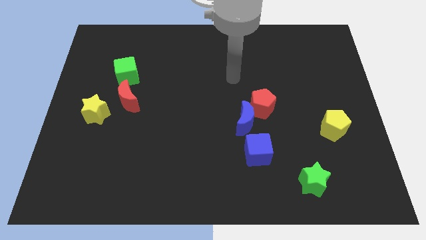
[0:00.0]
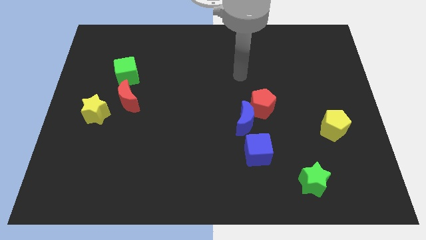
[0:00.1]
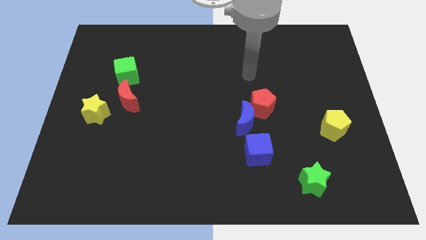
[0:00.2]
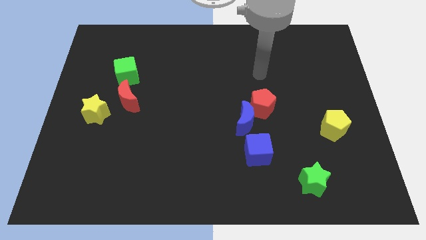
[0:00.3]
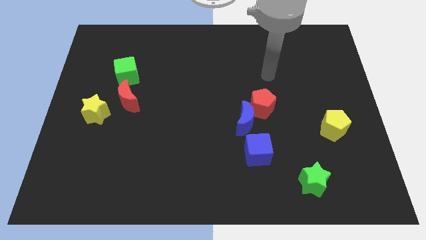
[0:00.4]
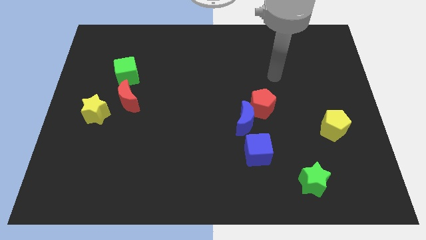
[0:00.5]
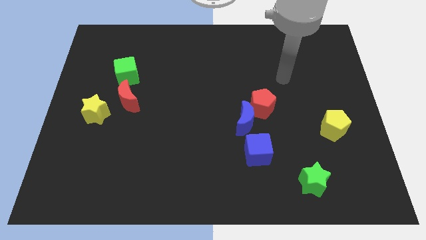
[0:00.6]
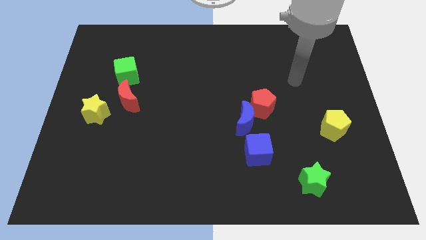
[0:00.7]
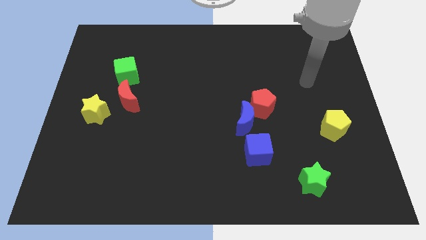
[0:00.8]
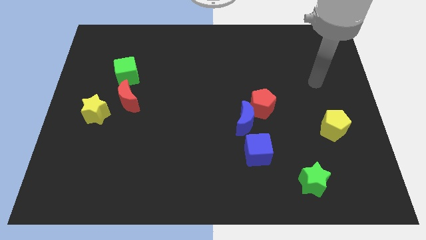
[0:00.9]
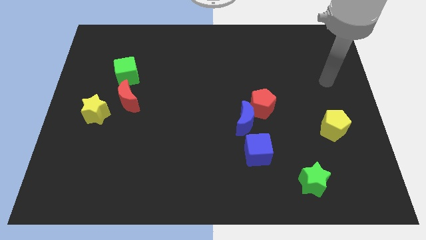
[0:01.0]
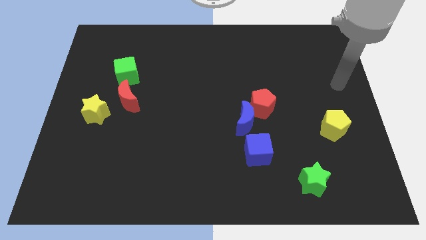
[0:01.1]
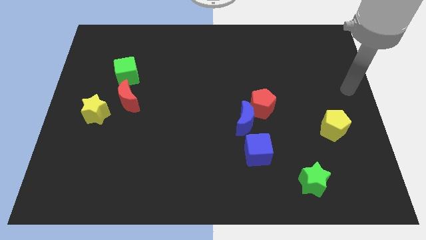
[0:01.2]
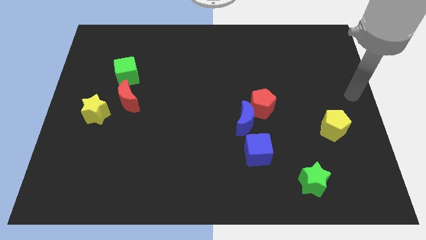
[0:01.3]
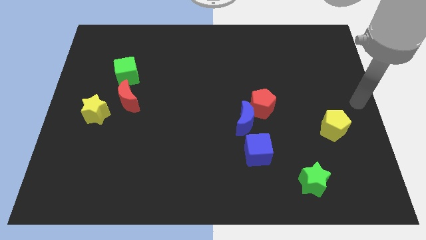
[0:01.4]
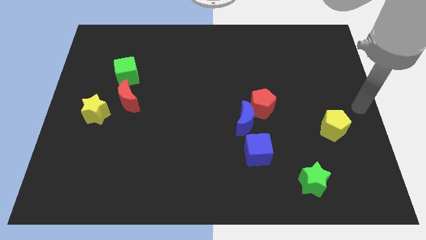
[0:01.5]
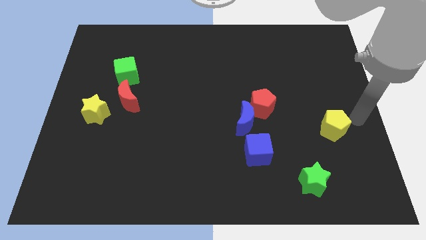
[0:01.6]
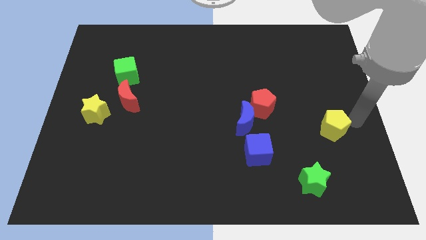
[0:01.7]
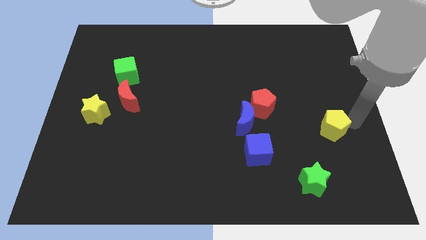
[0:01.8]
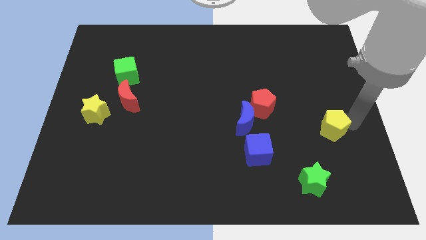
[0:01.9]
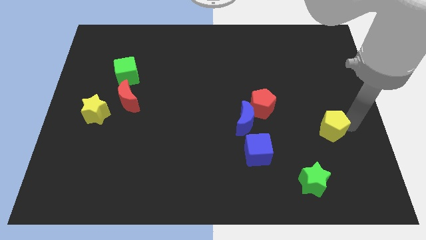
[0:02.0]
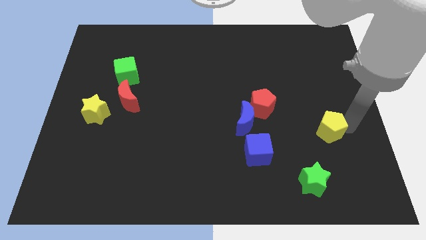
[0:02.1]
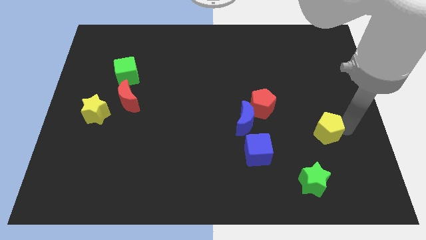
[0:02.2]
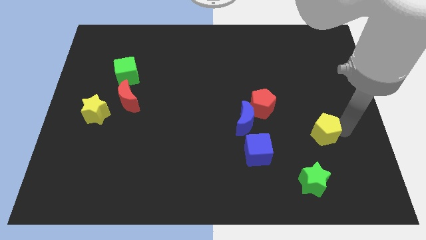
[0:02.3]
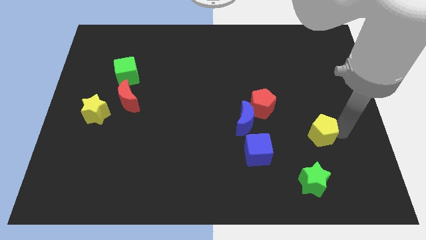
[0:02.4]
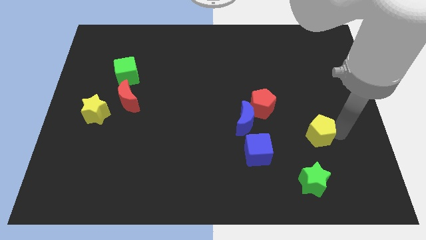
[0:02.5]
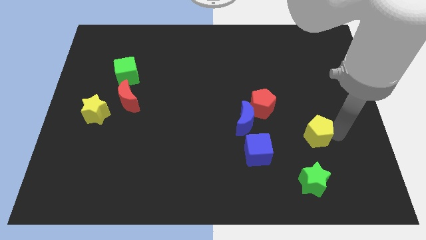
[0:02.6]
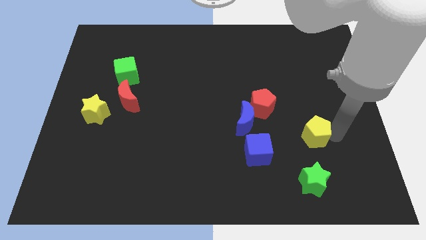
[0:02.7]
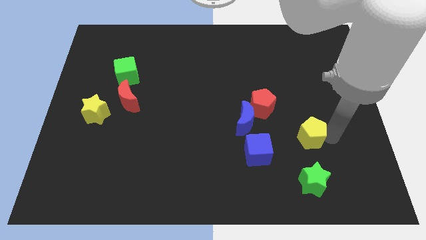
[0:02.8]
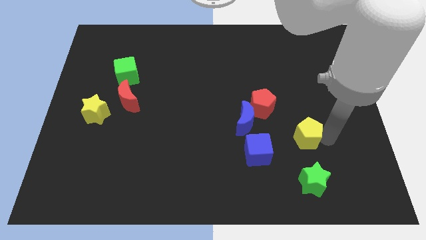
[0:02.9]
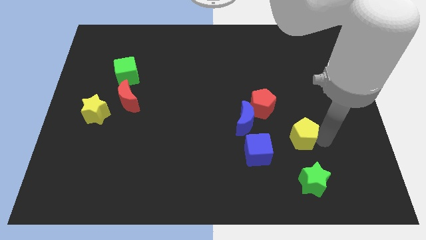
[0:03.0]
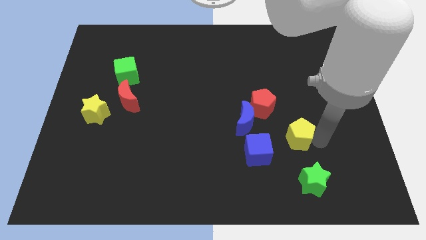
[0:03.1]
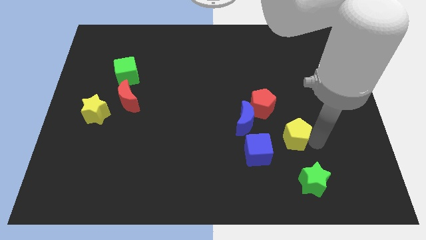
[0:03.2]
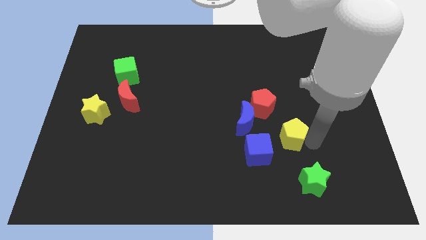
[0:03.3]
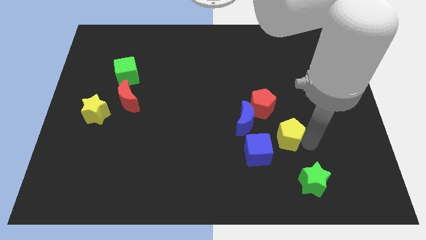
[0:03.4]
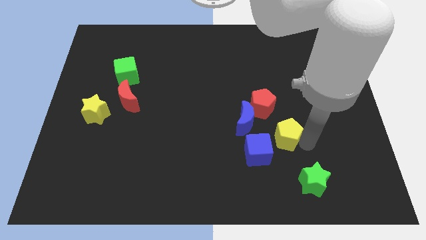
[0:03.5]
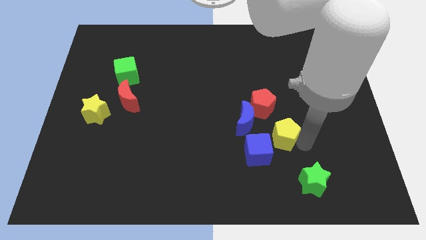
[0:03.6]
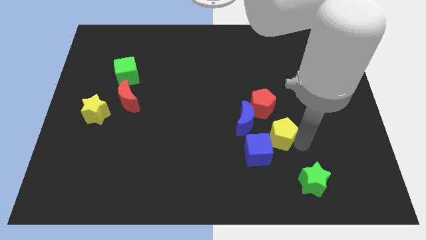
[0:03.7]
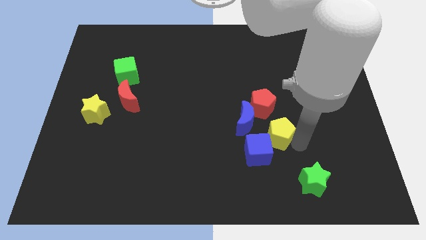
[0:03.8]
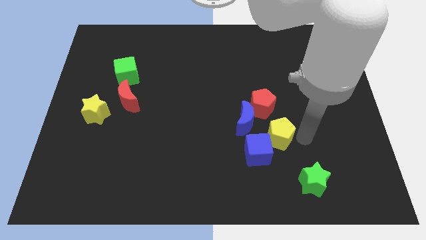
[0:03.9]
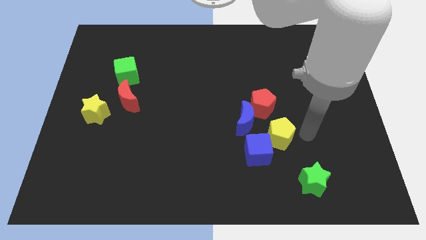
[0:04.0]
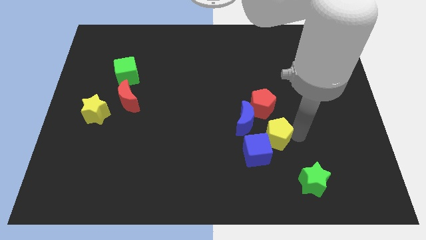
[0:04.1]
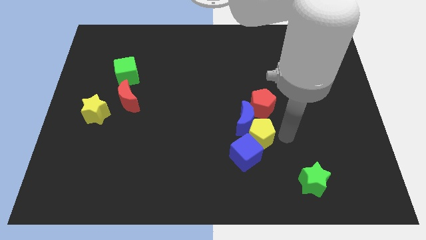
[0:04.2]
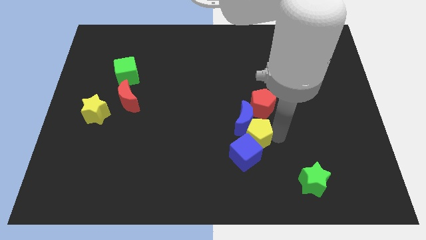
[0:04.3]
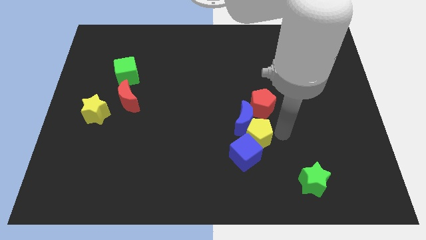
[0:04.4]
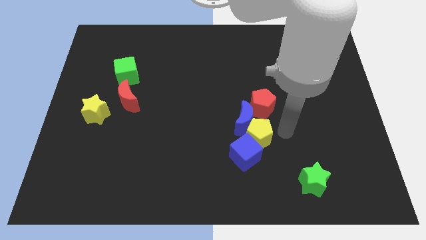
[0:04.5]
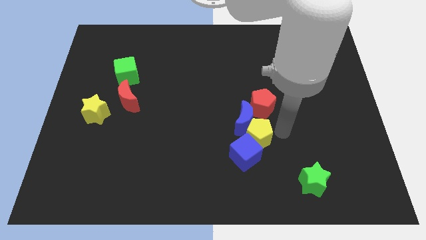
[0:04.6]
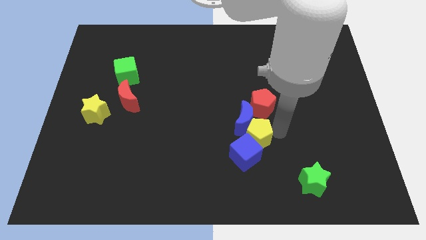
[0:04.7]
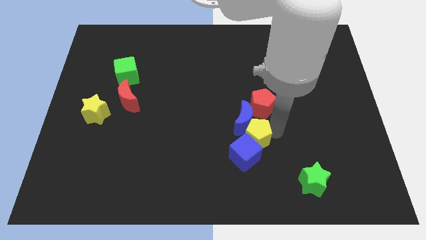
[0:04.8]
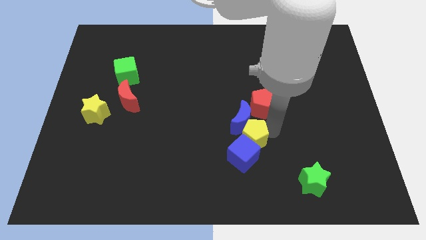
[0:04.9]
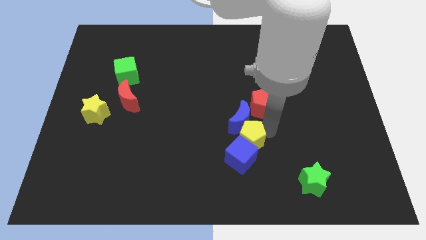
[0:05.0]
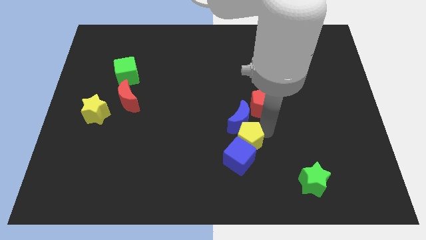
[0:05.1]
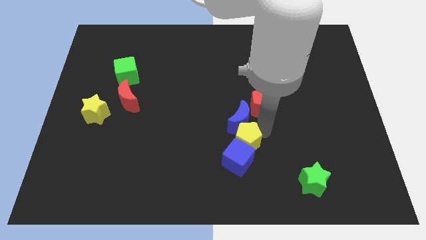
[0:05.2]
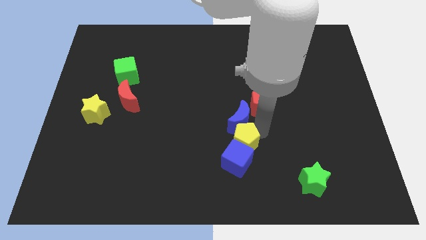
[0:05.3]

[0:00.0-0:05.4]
move the yellow pentagon to the left

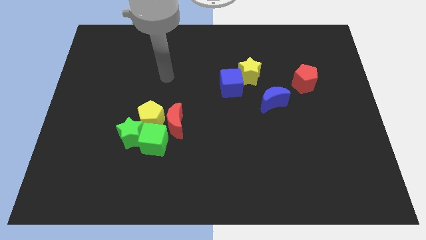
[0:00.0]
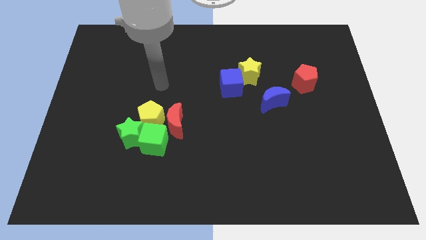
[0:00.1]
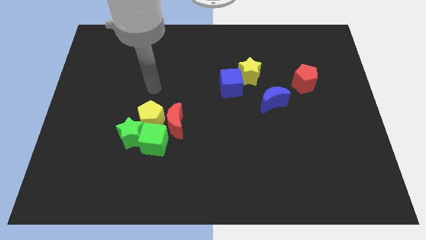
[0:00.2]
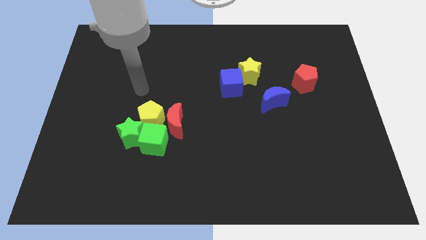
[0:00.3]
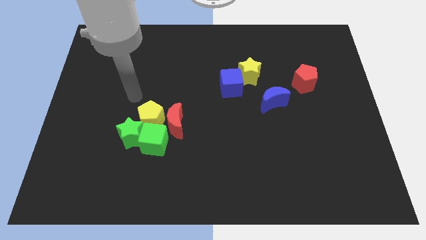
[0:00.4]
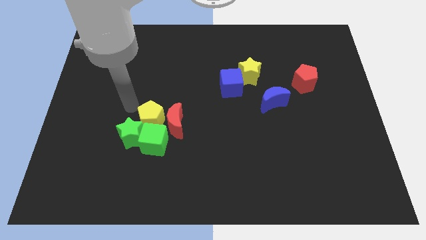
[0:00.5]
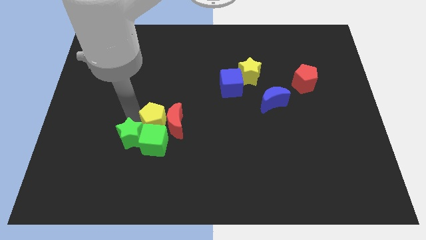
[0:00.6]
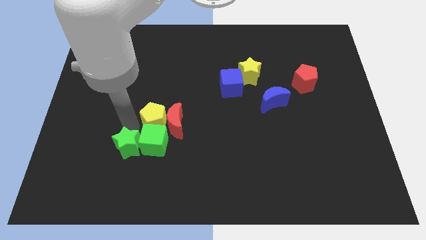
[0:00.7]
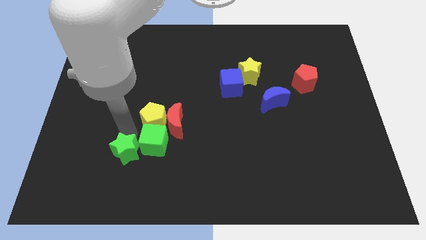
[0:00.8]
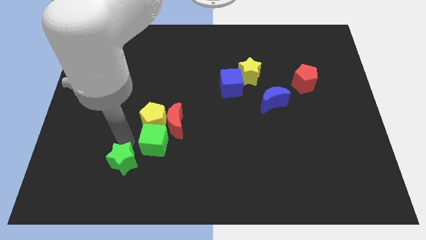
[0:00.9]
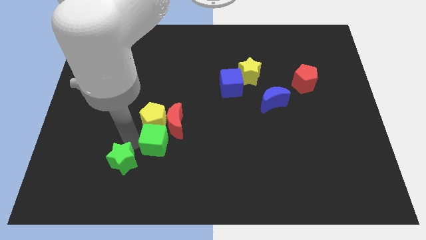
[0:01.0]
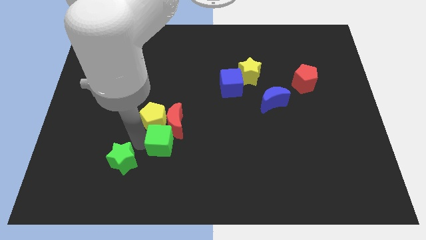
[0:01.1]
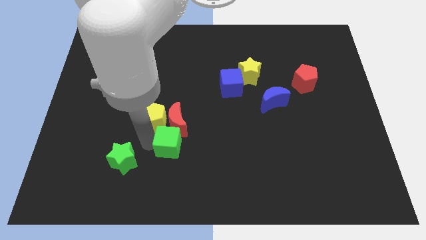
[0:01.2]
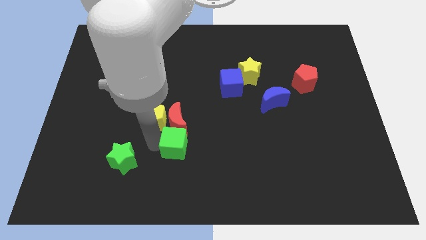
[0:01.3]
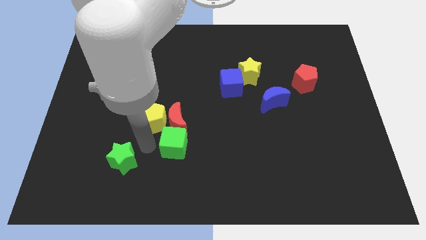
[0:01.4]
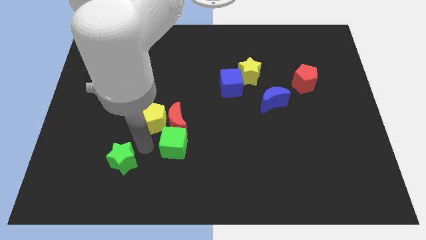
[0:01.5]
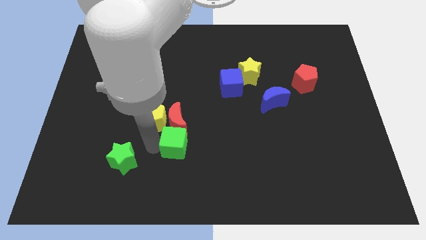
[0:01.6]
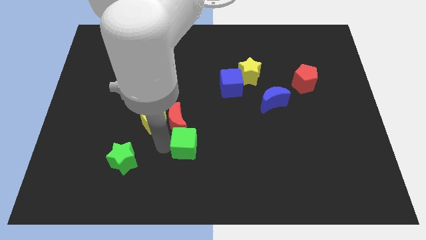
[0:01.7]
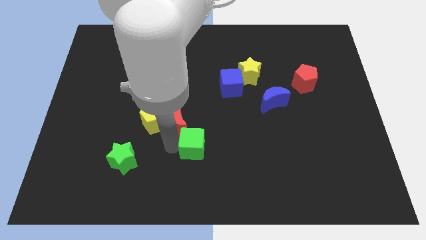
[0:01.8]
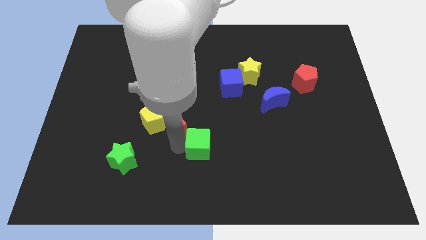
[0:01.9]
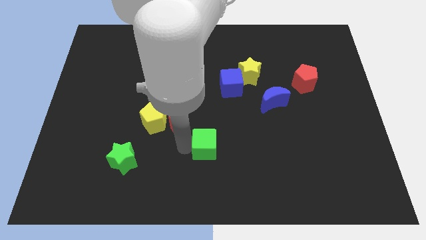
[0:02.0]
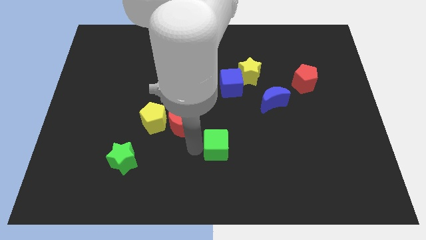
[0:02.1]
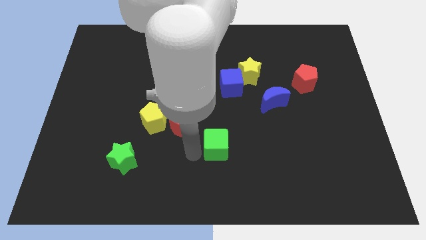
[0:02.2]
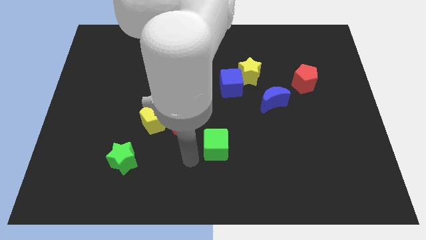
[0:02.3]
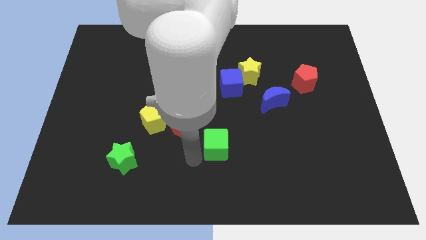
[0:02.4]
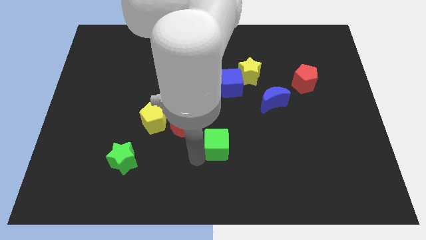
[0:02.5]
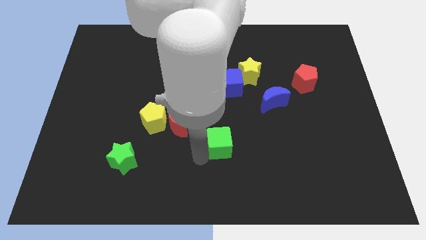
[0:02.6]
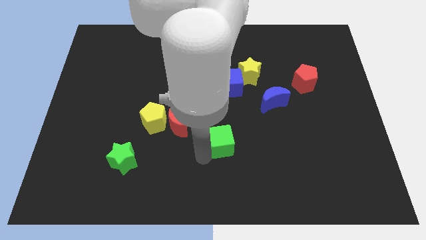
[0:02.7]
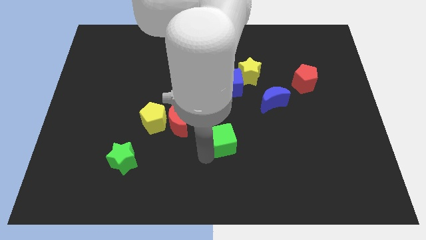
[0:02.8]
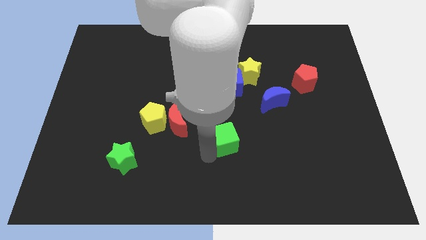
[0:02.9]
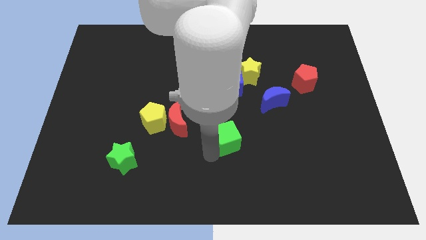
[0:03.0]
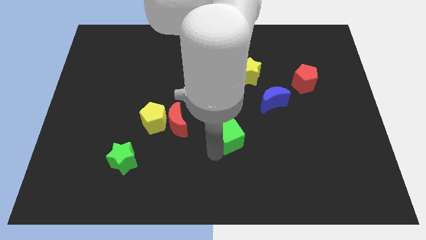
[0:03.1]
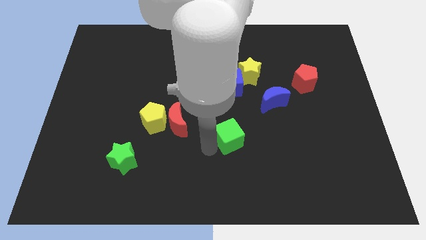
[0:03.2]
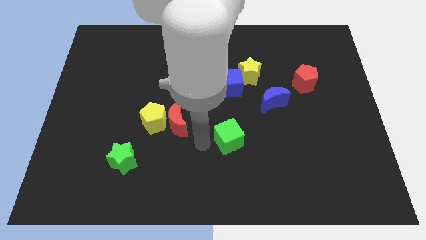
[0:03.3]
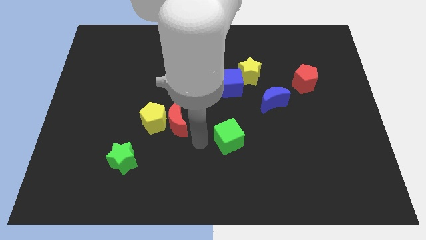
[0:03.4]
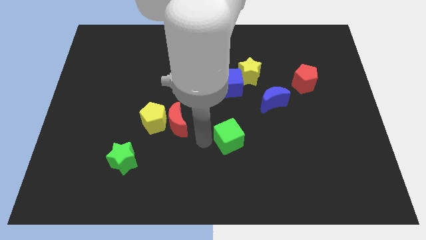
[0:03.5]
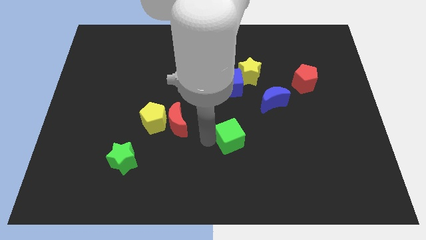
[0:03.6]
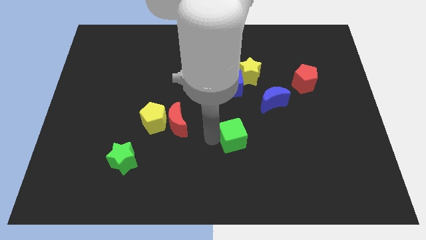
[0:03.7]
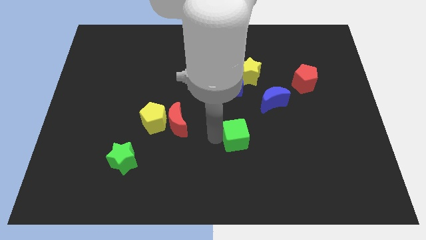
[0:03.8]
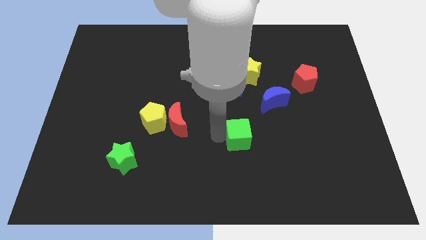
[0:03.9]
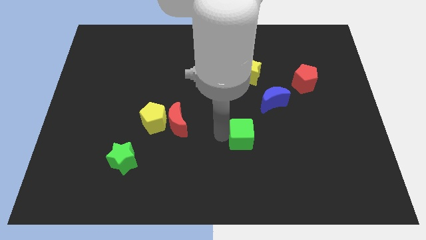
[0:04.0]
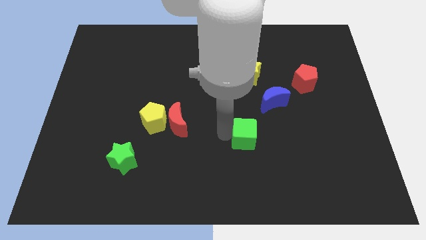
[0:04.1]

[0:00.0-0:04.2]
move the green cube right
